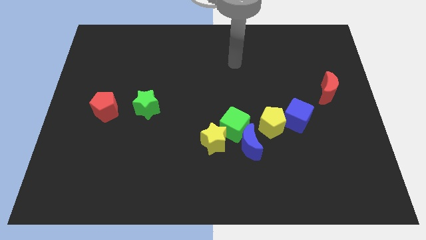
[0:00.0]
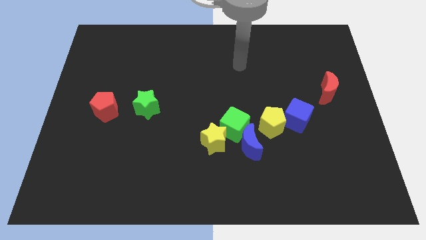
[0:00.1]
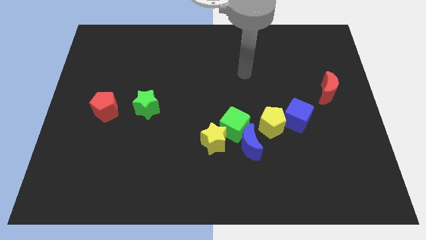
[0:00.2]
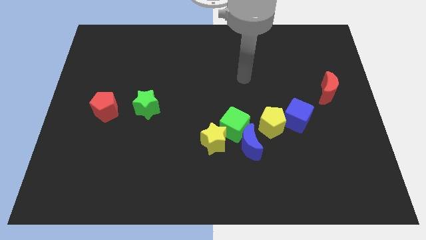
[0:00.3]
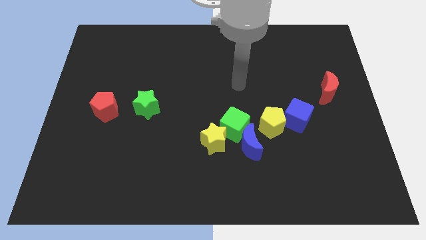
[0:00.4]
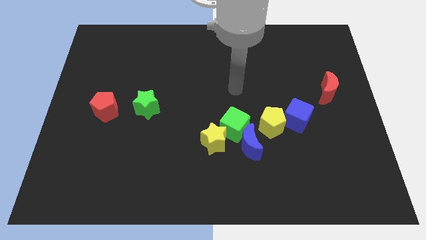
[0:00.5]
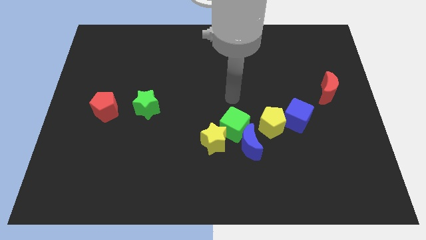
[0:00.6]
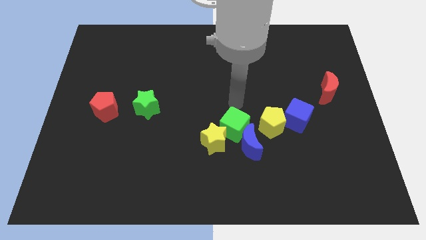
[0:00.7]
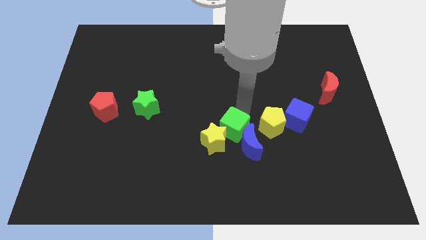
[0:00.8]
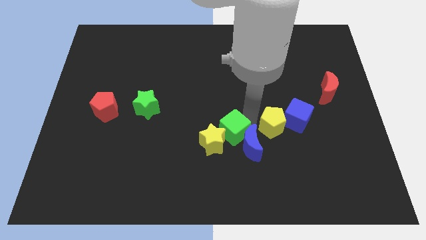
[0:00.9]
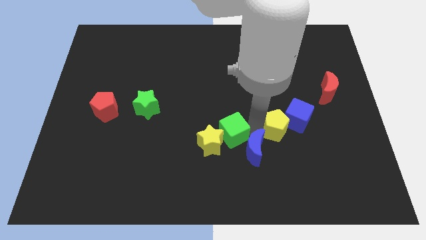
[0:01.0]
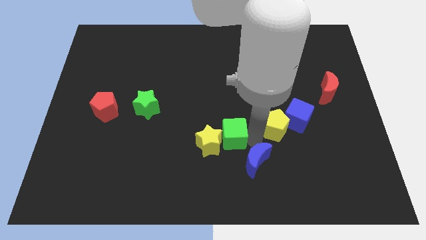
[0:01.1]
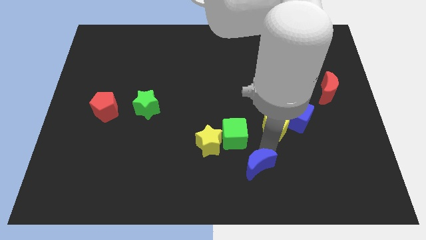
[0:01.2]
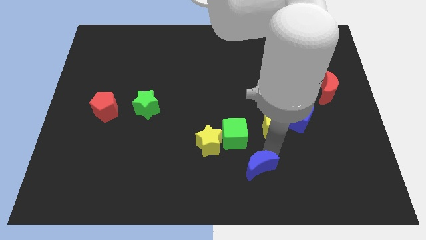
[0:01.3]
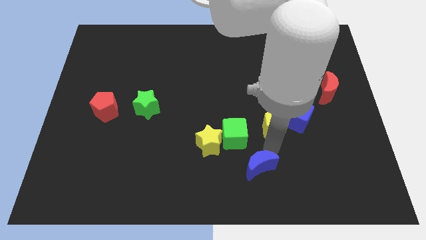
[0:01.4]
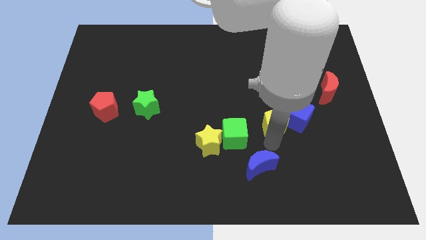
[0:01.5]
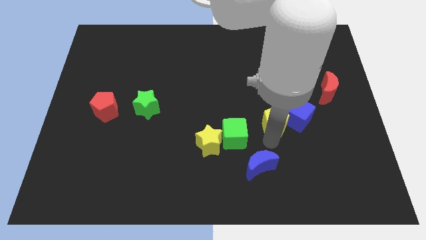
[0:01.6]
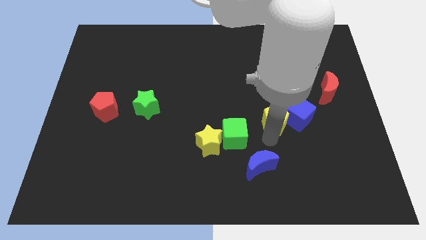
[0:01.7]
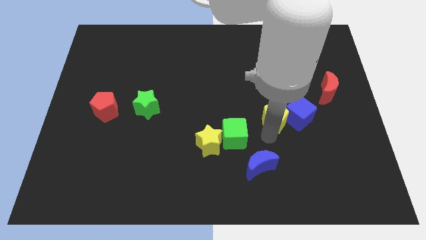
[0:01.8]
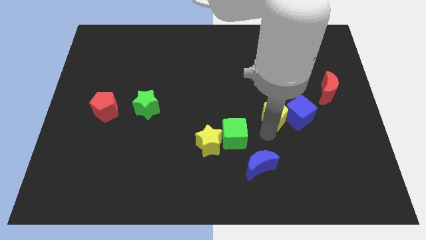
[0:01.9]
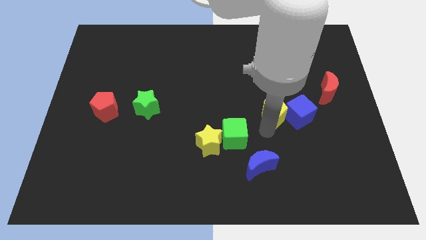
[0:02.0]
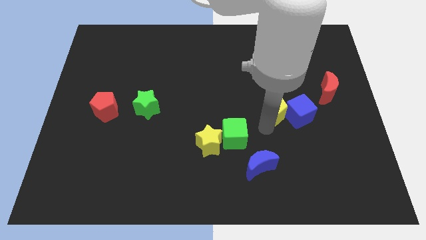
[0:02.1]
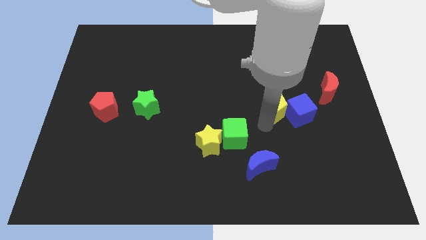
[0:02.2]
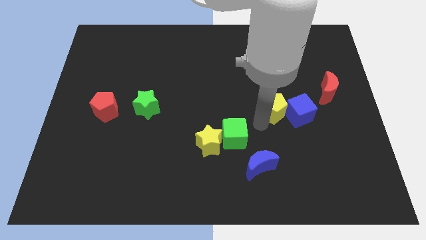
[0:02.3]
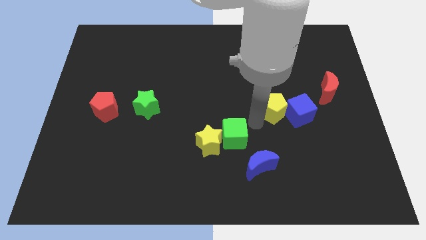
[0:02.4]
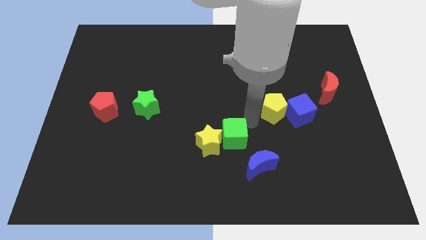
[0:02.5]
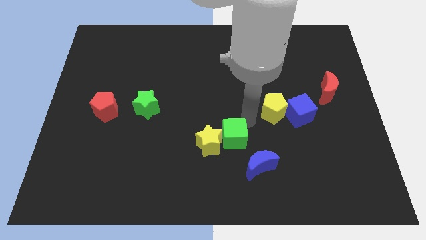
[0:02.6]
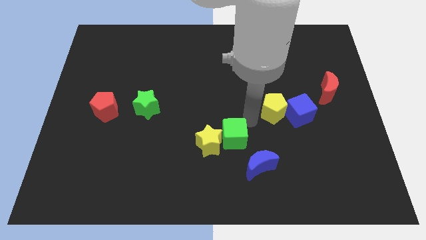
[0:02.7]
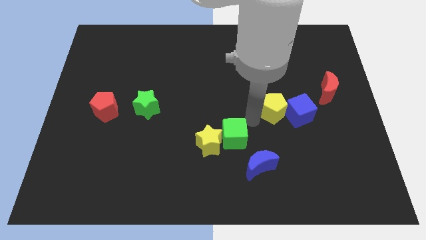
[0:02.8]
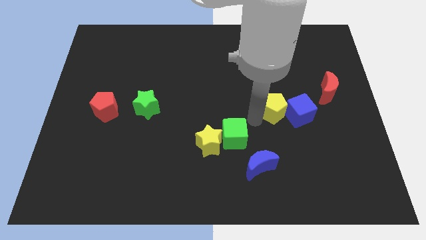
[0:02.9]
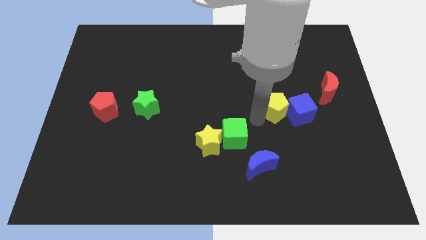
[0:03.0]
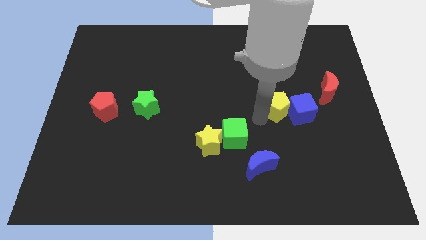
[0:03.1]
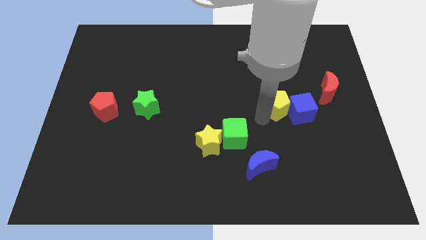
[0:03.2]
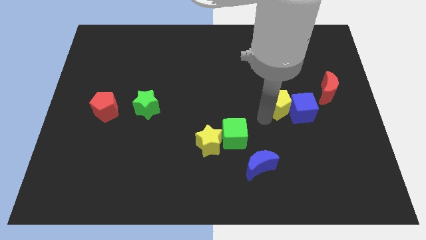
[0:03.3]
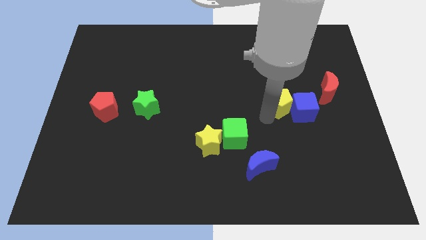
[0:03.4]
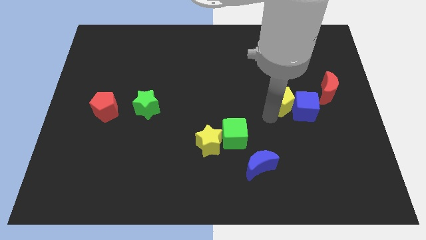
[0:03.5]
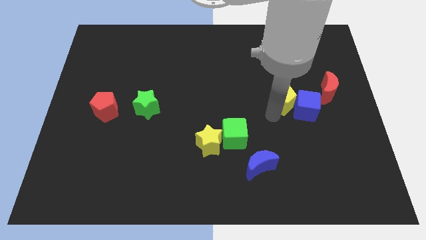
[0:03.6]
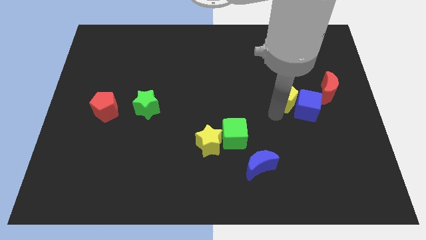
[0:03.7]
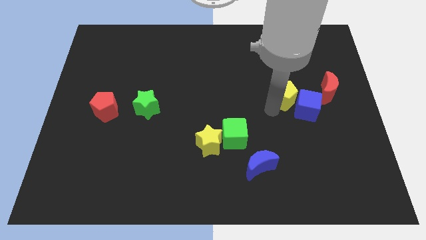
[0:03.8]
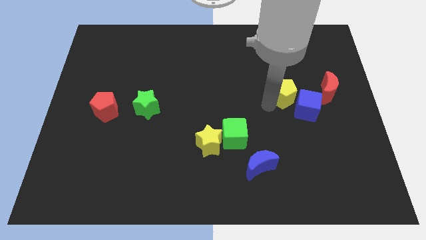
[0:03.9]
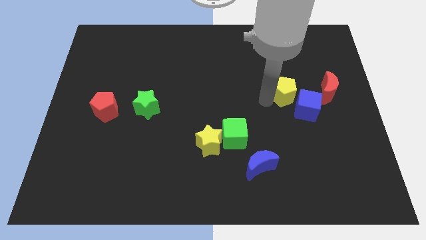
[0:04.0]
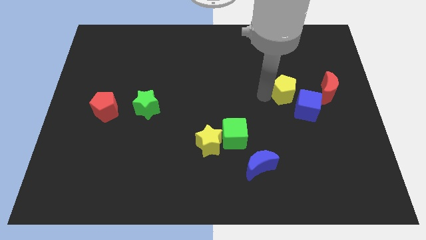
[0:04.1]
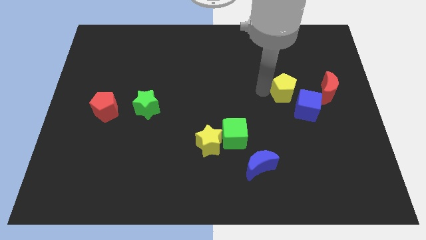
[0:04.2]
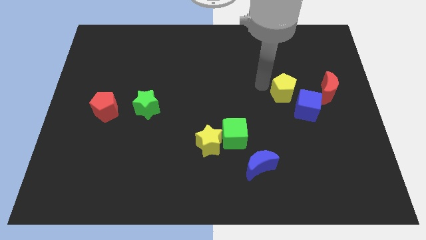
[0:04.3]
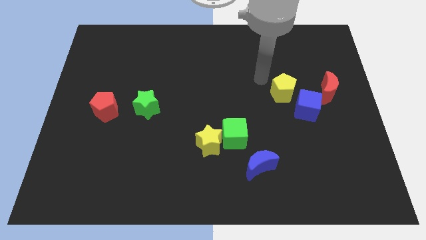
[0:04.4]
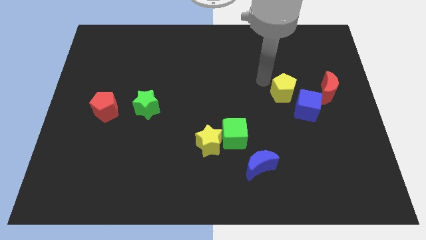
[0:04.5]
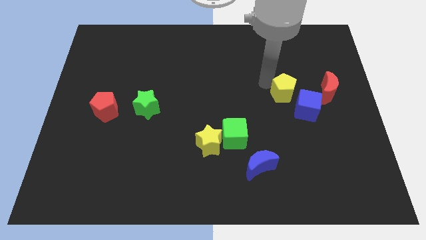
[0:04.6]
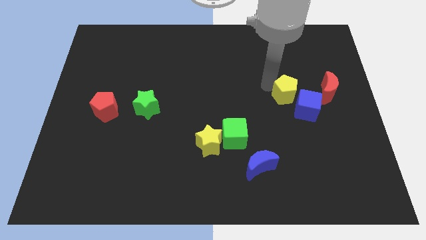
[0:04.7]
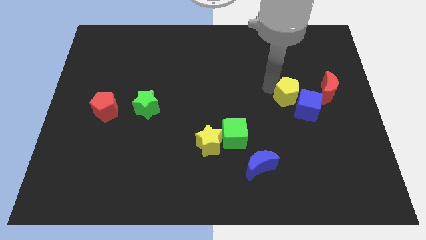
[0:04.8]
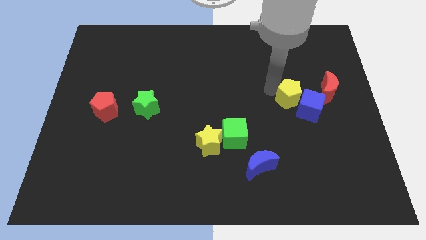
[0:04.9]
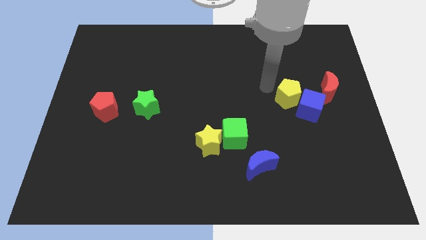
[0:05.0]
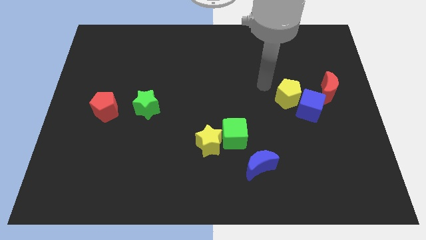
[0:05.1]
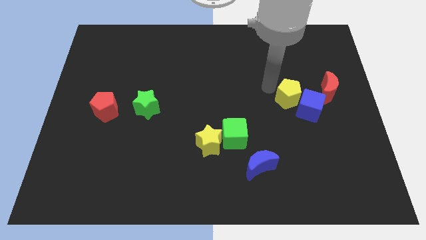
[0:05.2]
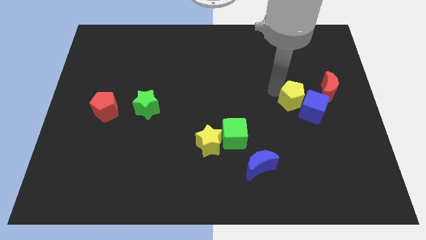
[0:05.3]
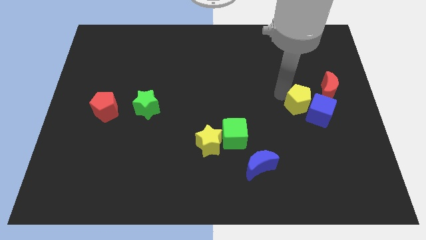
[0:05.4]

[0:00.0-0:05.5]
move the yellow pentagon to the bottom left of the red moon

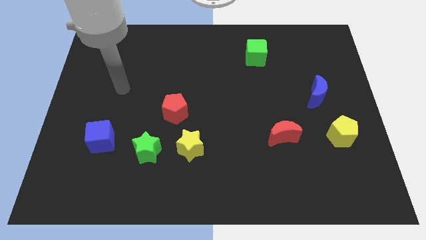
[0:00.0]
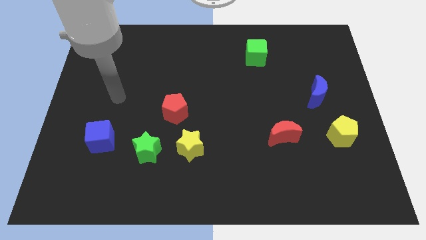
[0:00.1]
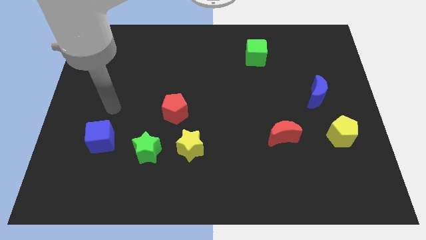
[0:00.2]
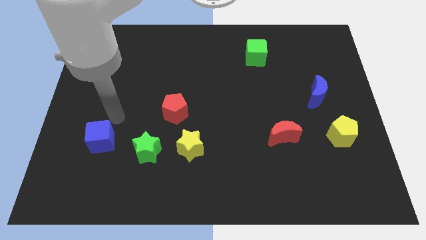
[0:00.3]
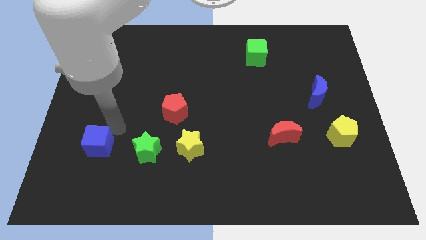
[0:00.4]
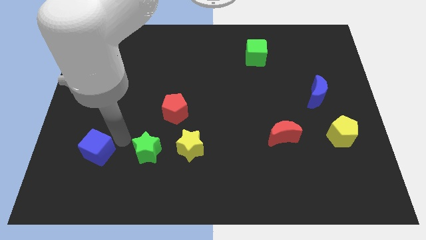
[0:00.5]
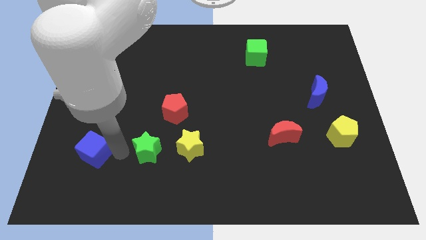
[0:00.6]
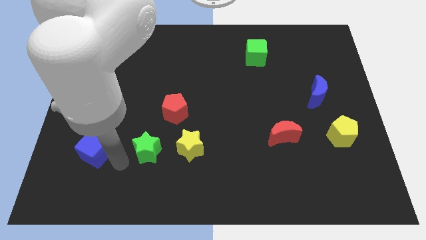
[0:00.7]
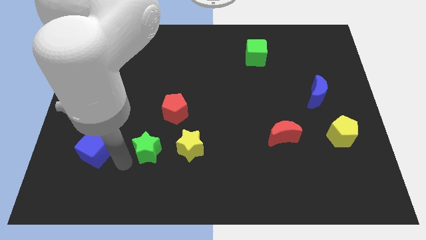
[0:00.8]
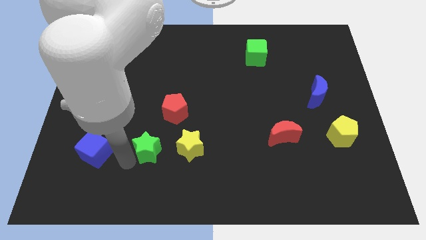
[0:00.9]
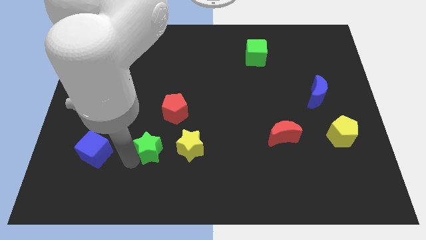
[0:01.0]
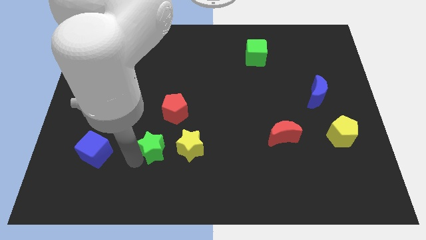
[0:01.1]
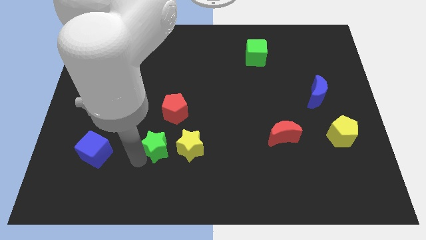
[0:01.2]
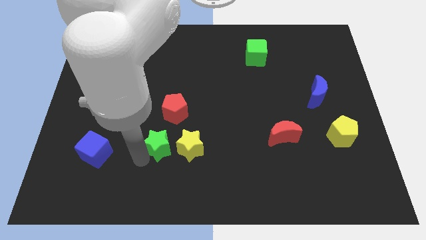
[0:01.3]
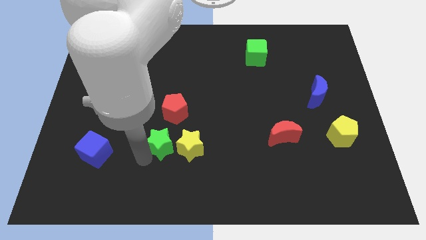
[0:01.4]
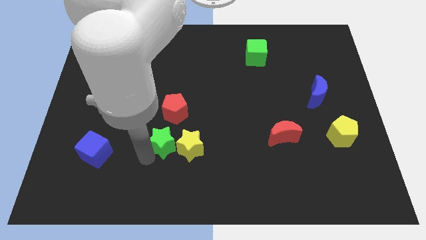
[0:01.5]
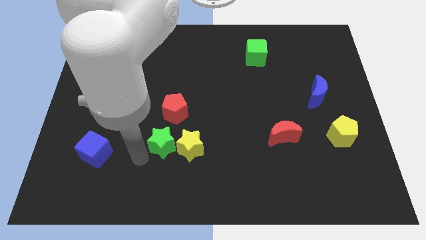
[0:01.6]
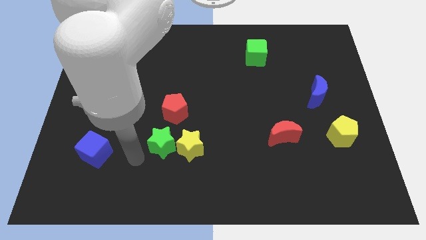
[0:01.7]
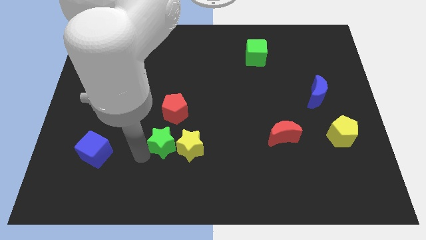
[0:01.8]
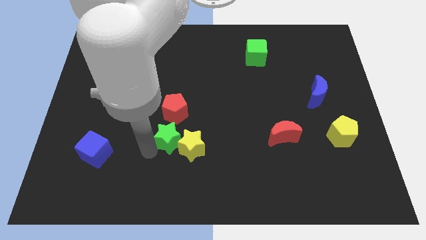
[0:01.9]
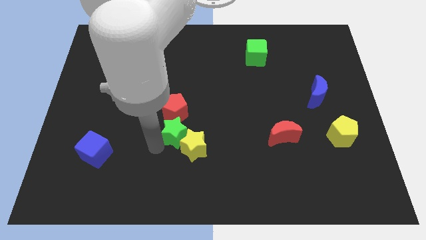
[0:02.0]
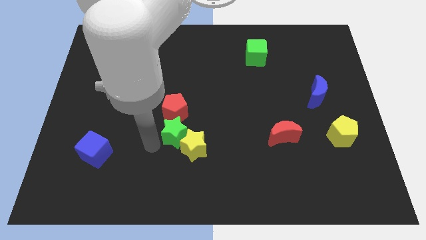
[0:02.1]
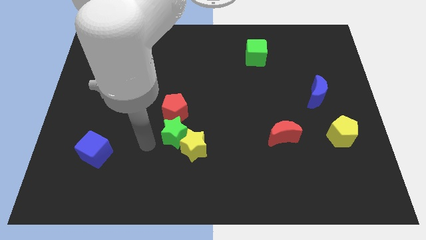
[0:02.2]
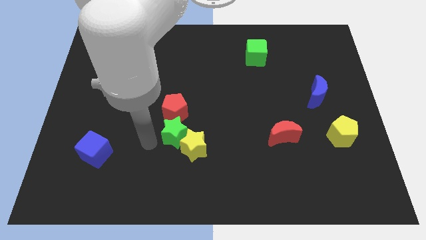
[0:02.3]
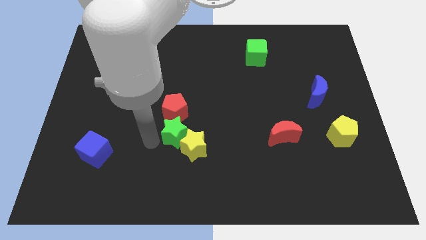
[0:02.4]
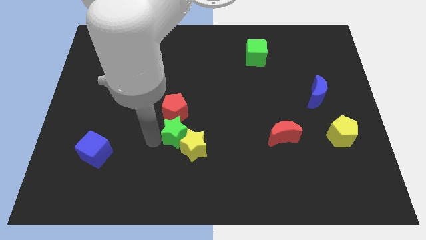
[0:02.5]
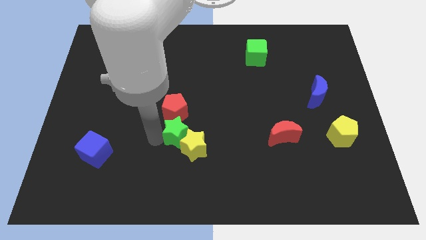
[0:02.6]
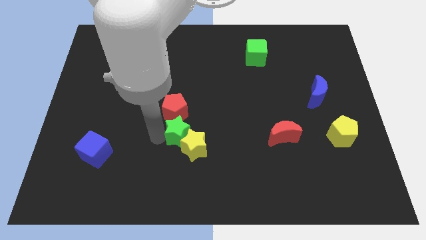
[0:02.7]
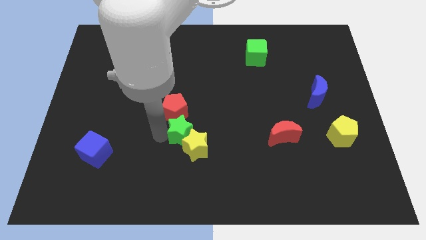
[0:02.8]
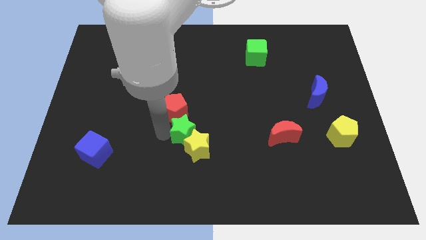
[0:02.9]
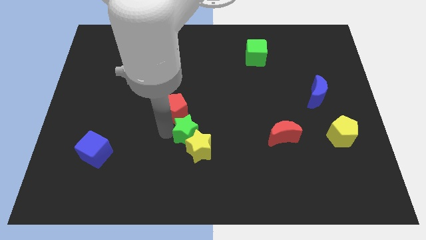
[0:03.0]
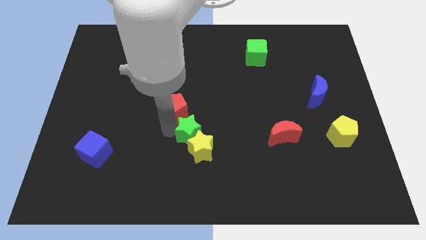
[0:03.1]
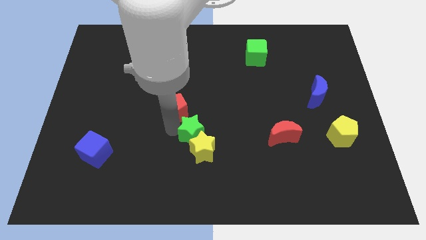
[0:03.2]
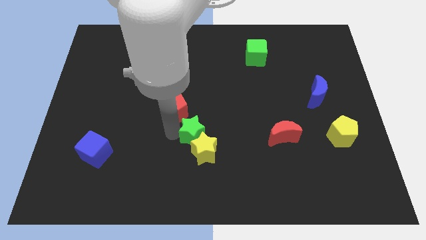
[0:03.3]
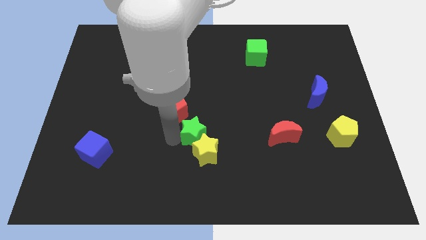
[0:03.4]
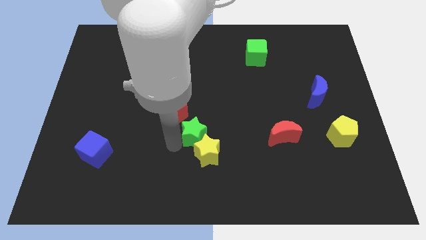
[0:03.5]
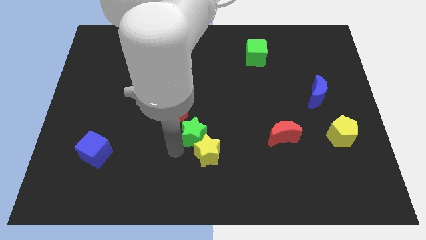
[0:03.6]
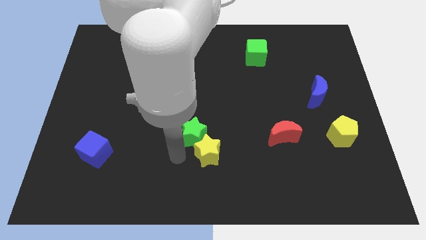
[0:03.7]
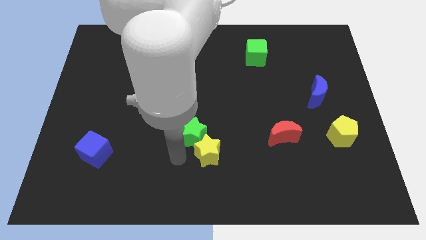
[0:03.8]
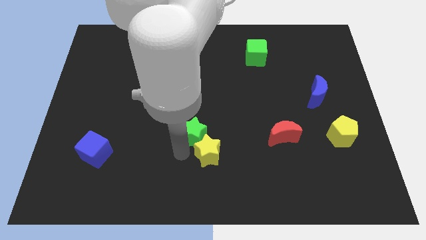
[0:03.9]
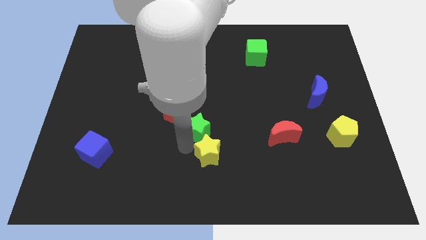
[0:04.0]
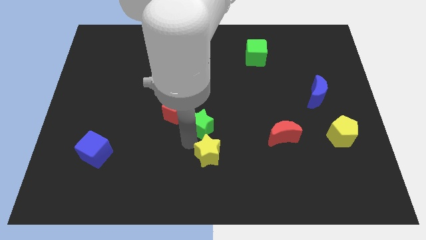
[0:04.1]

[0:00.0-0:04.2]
put the green star to the right of the red pentagon
